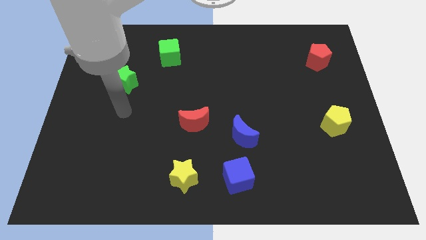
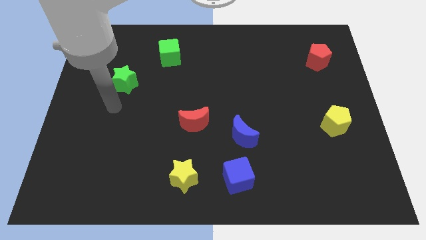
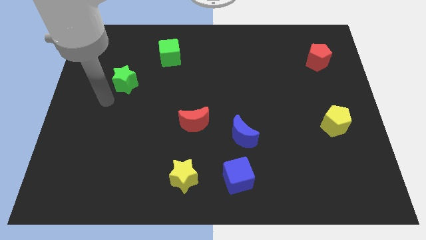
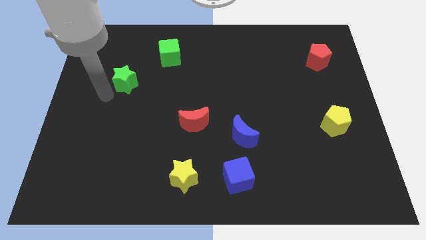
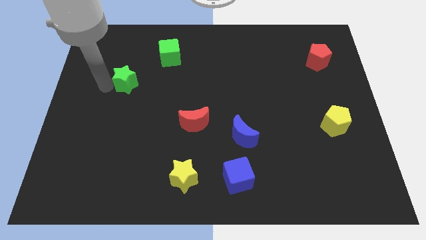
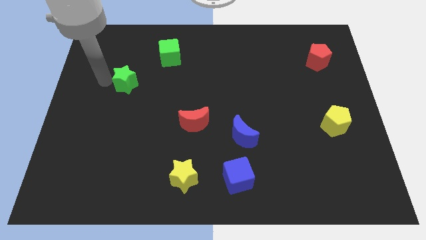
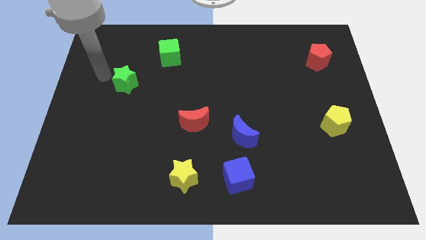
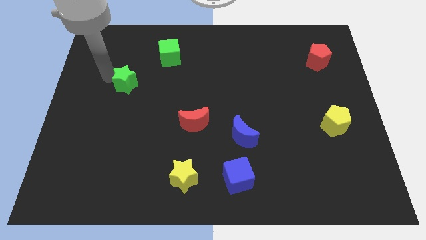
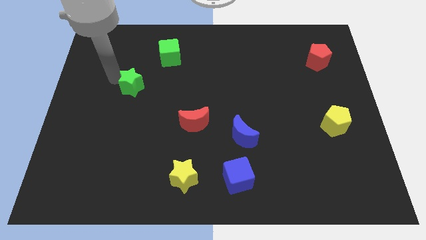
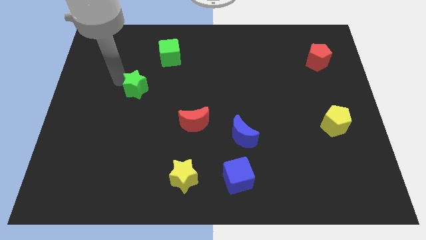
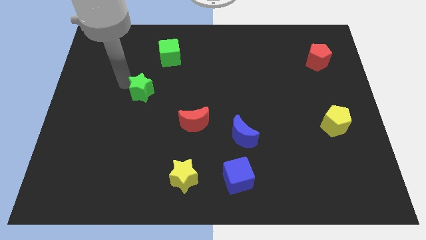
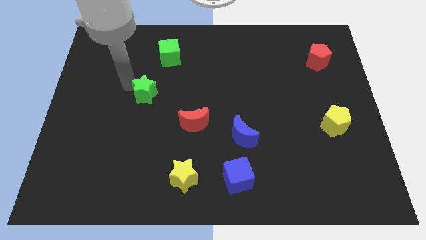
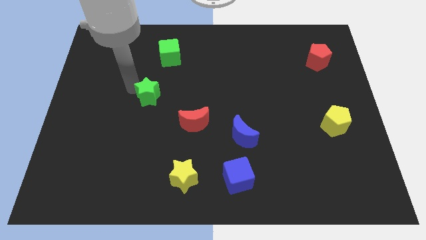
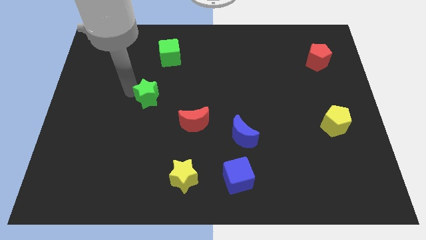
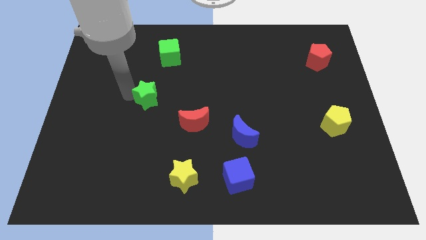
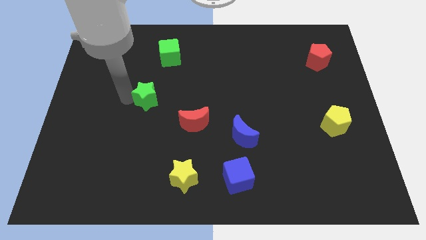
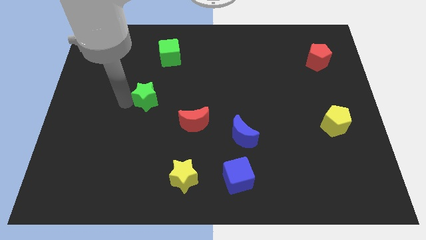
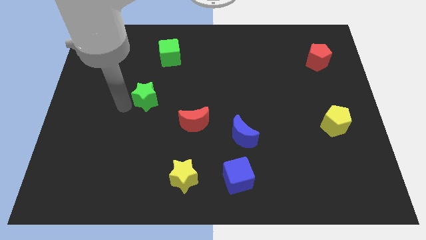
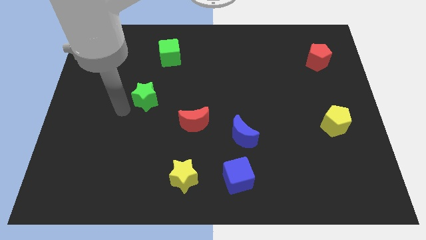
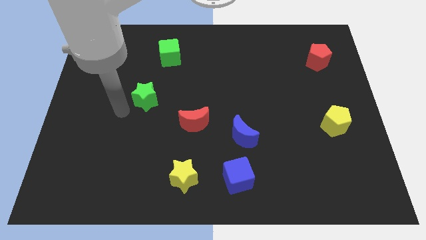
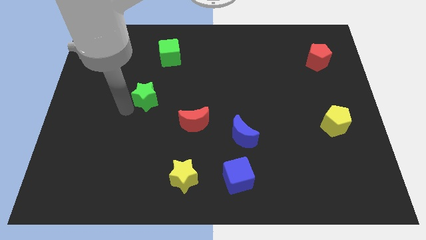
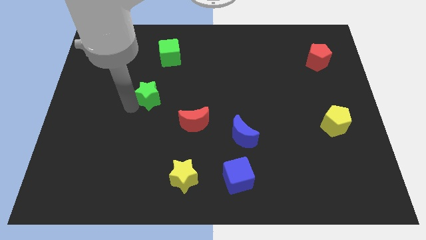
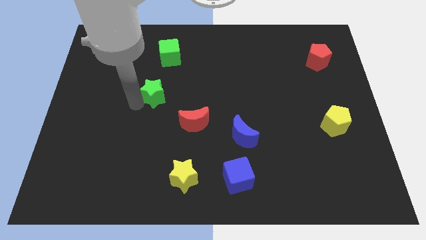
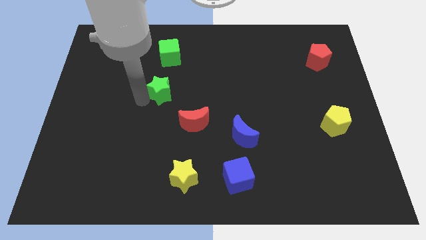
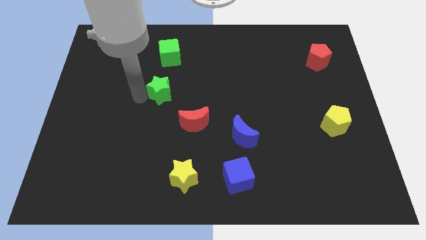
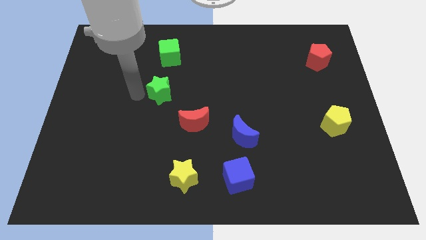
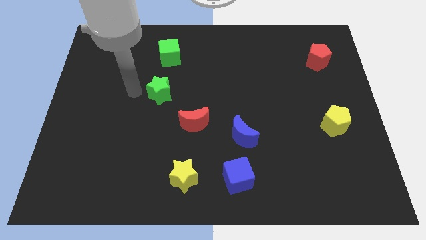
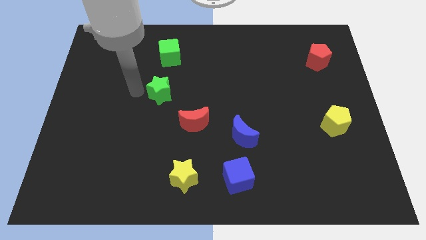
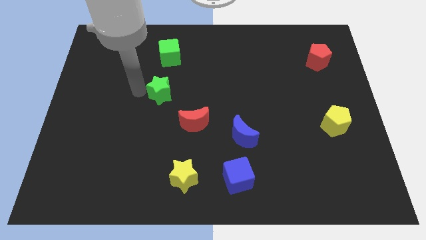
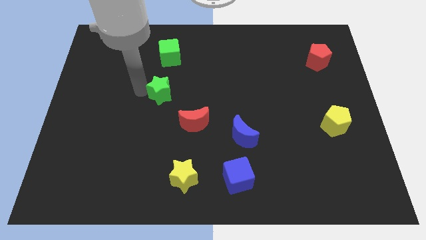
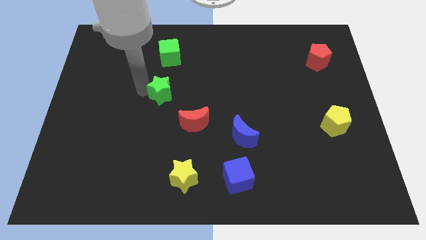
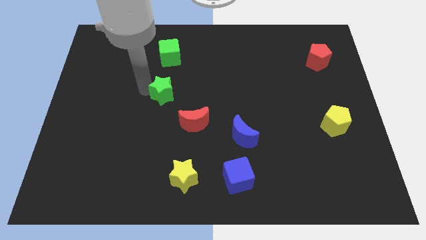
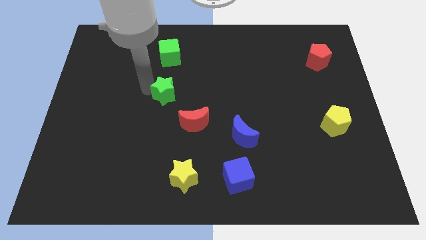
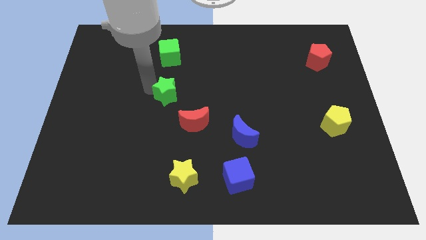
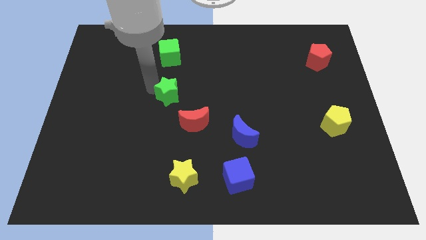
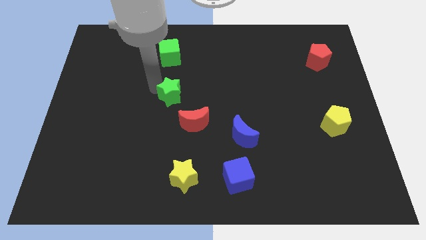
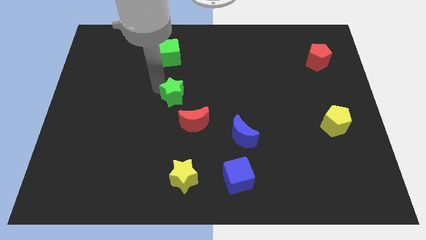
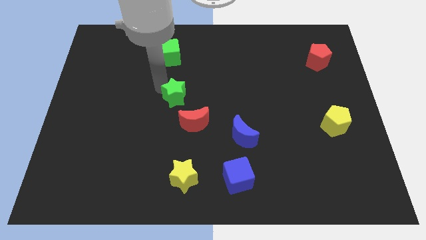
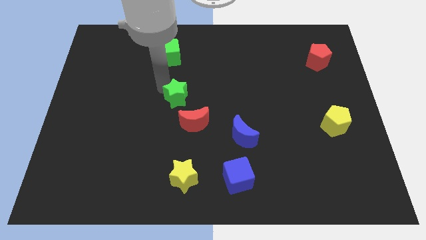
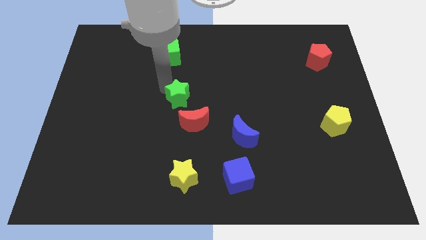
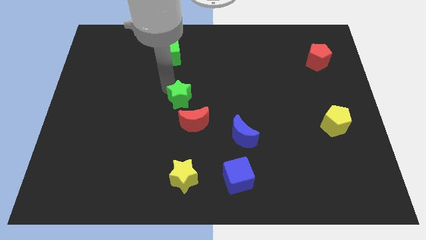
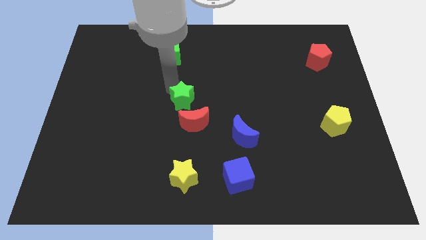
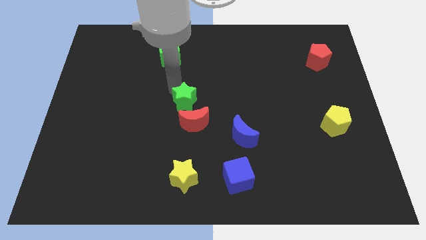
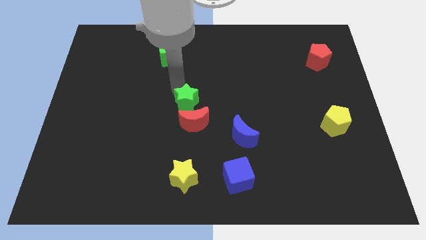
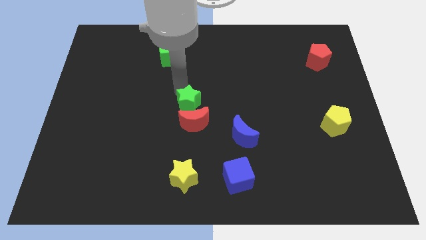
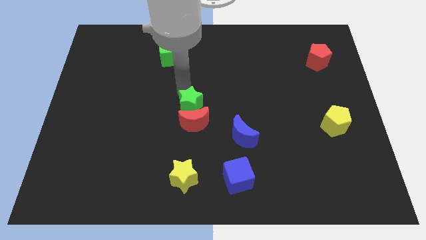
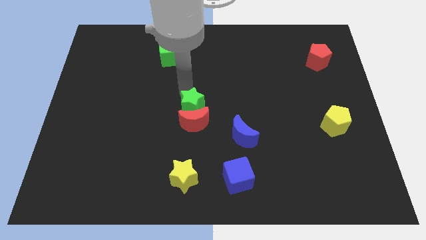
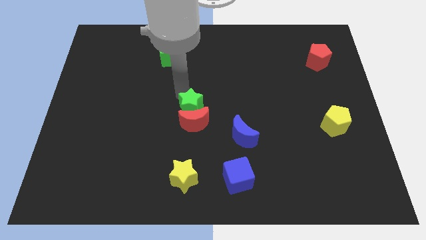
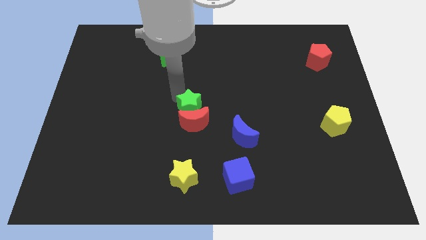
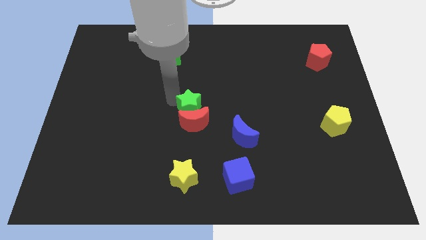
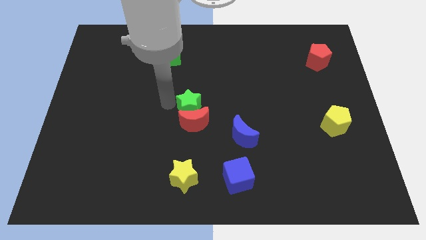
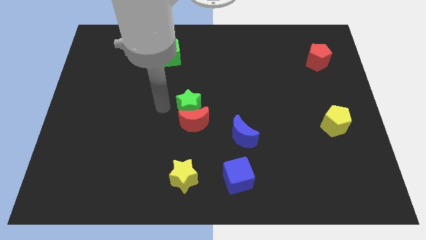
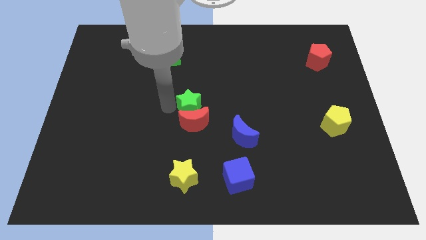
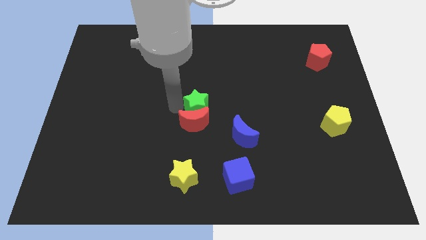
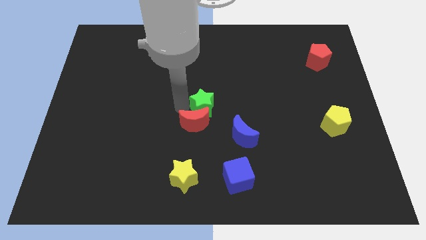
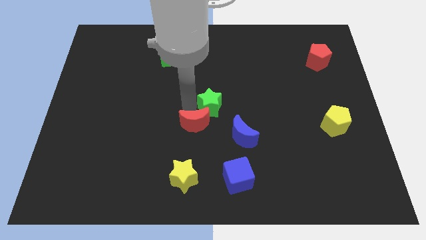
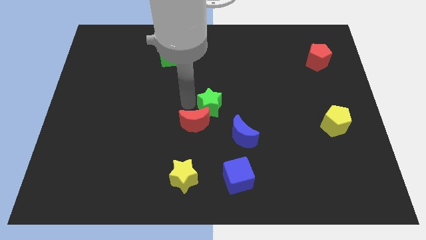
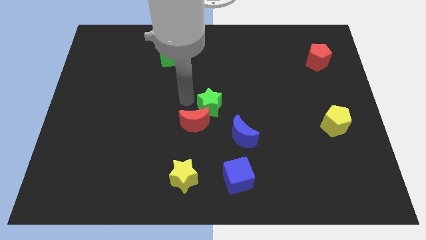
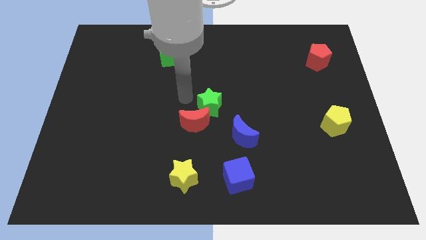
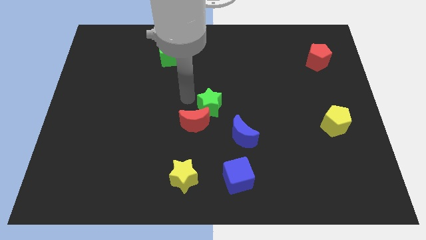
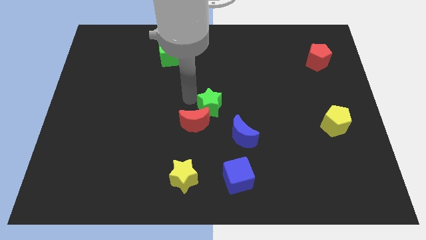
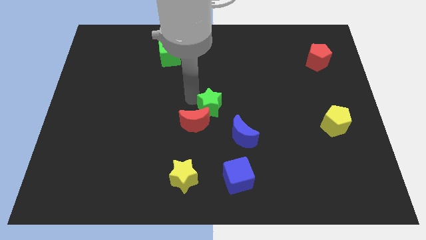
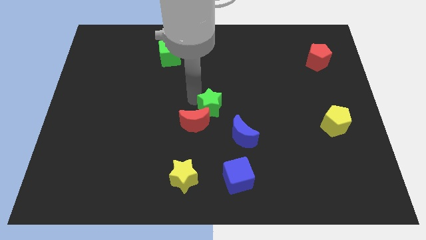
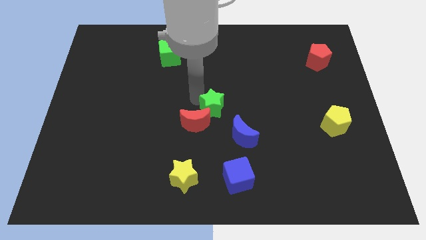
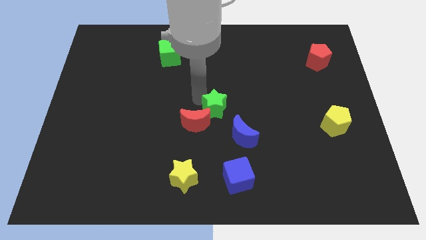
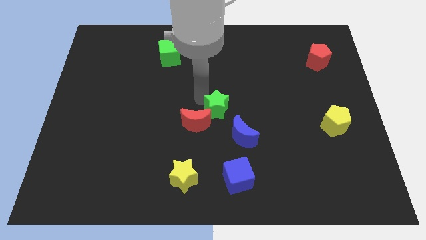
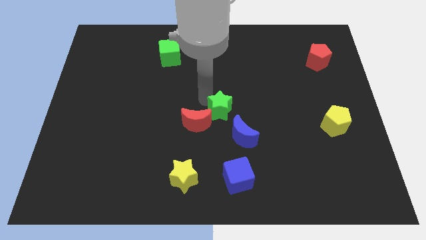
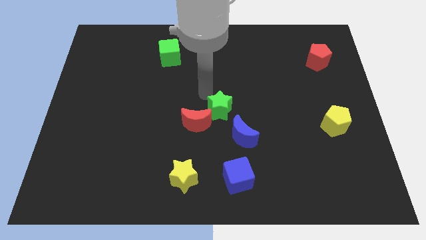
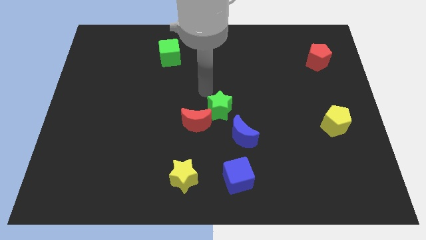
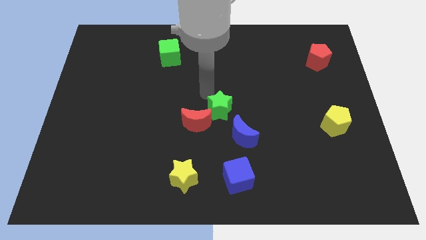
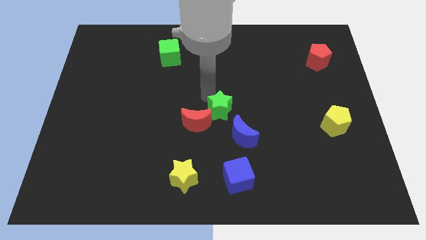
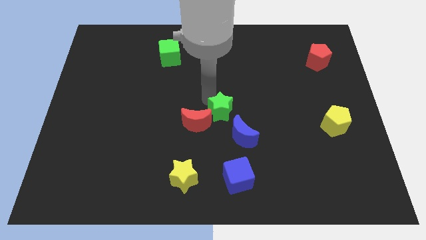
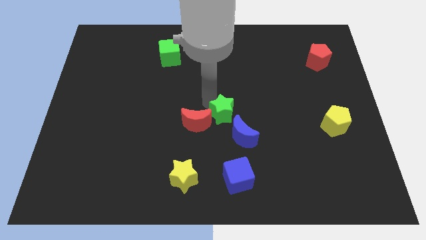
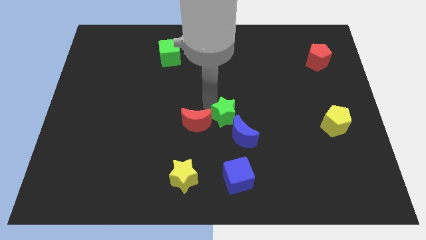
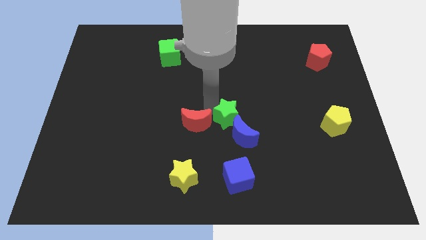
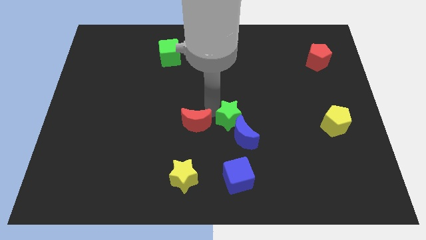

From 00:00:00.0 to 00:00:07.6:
push the green star to the blue moon

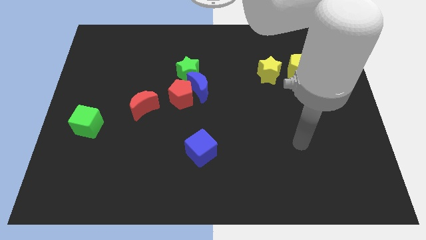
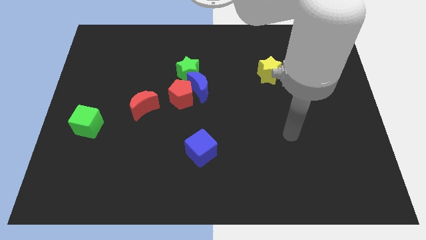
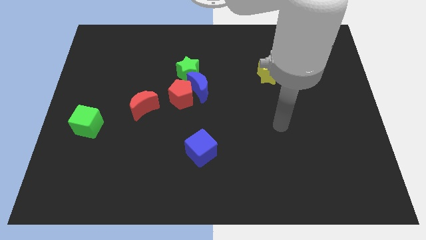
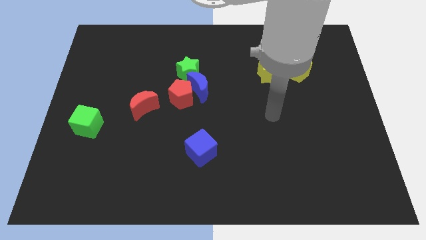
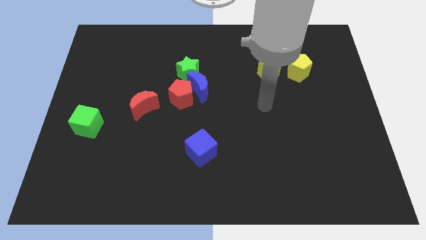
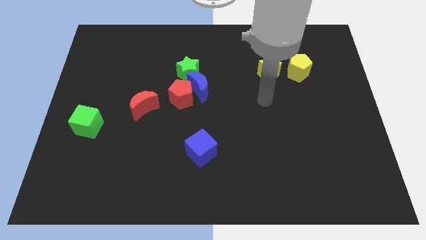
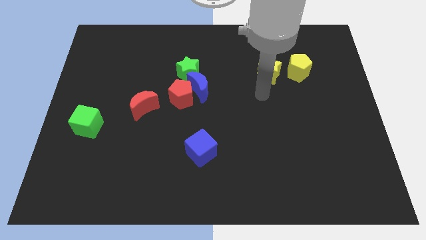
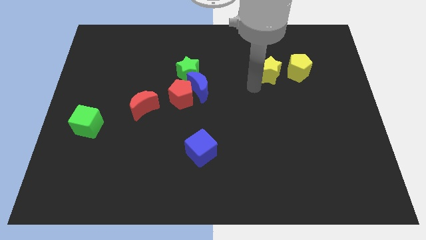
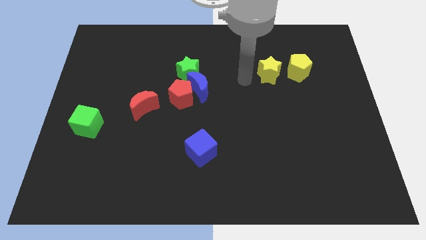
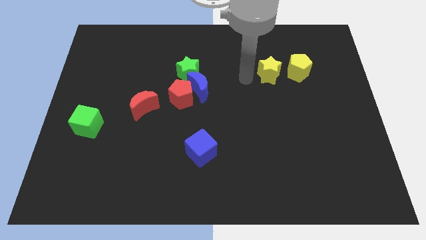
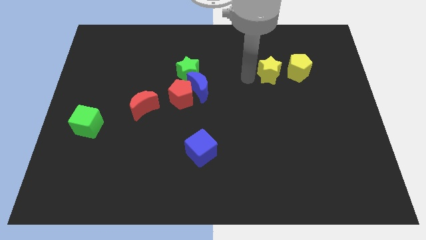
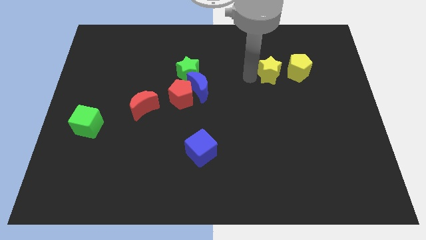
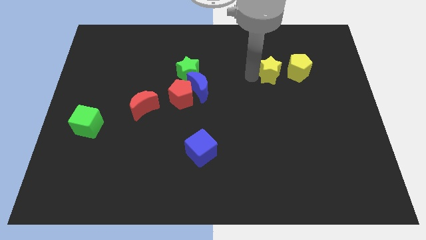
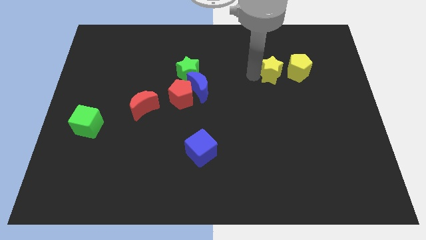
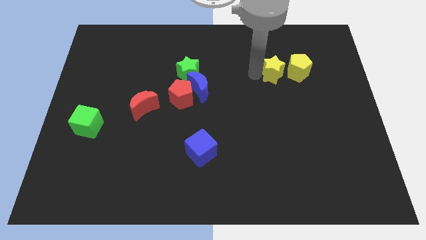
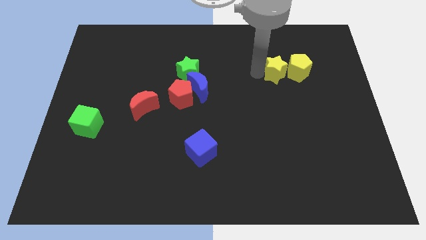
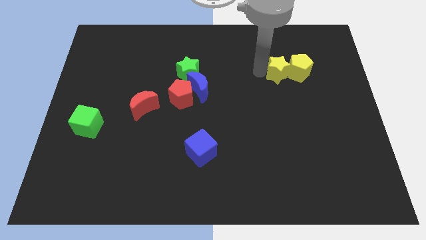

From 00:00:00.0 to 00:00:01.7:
put the yellow star next to the yellow pentagon
